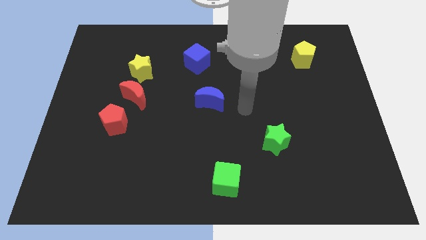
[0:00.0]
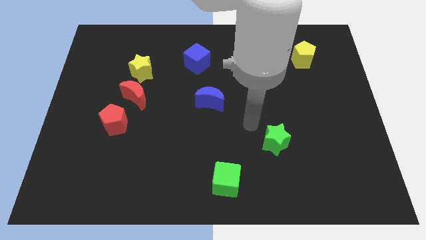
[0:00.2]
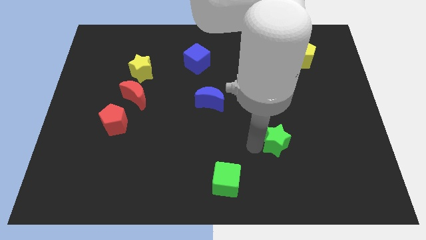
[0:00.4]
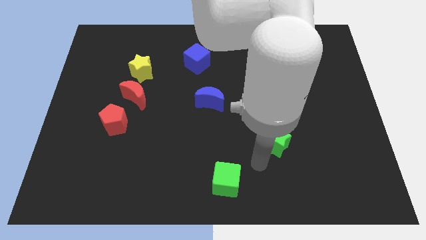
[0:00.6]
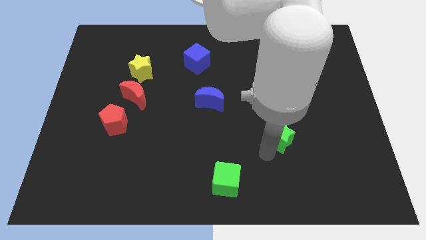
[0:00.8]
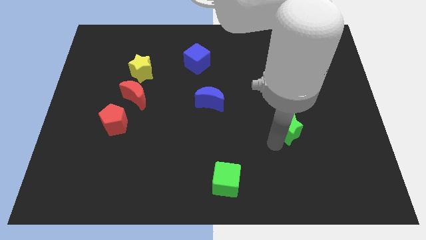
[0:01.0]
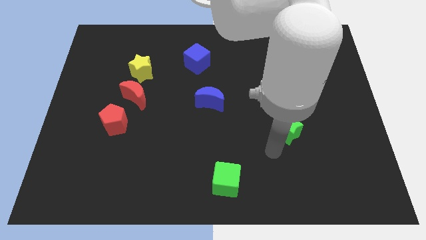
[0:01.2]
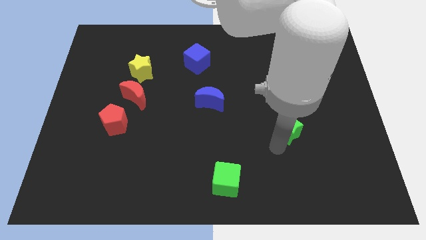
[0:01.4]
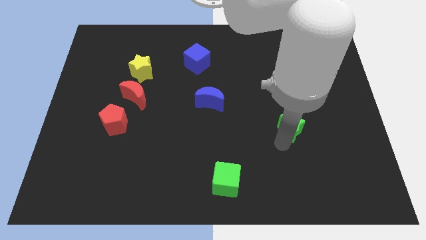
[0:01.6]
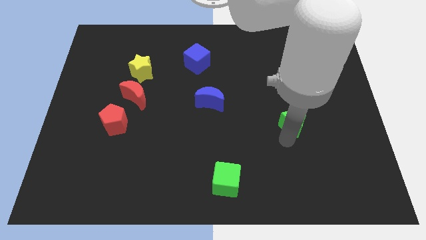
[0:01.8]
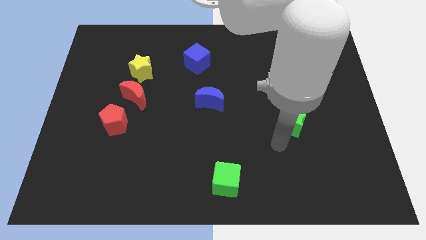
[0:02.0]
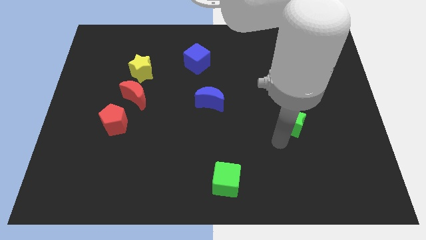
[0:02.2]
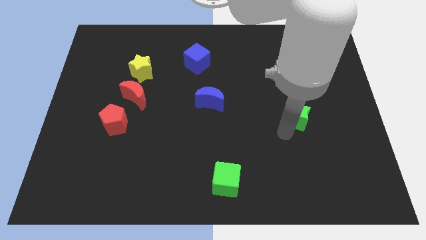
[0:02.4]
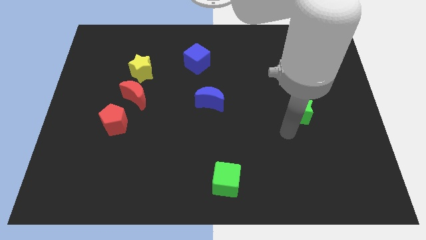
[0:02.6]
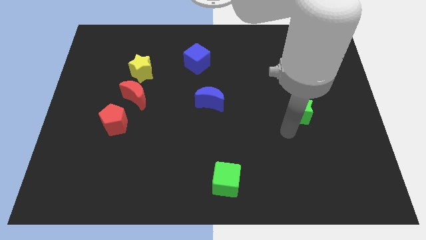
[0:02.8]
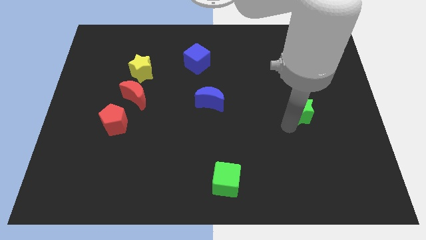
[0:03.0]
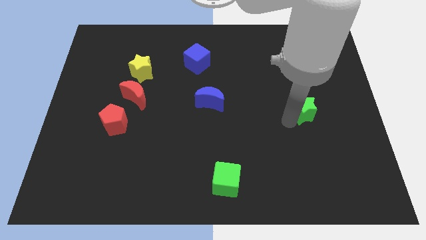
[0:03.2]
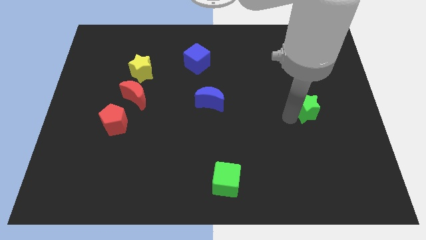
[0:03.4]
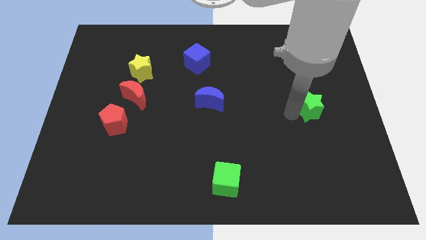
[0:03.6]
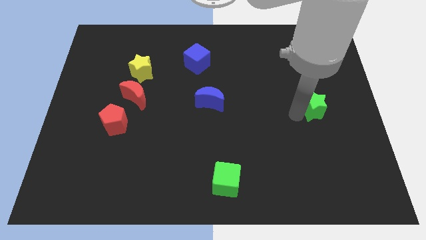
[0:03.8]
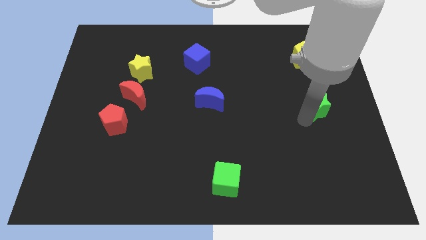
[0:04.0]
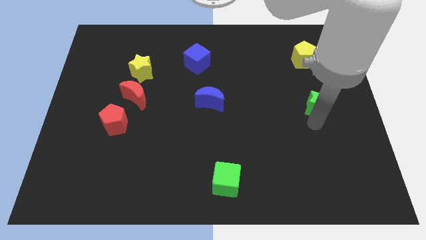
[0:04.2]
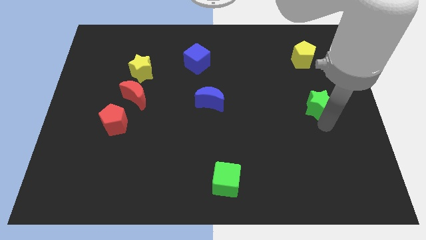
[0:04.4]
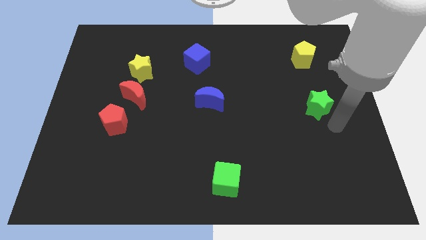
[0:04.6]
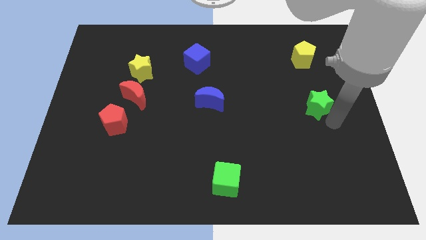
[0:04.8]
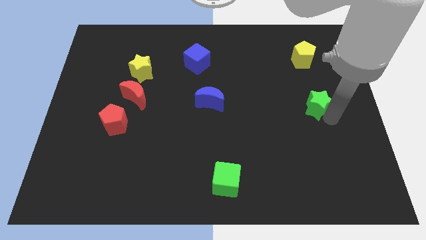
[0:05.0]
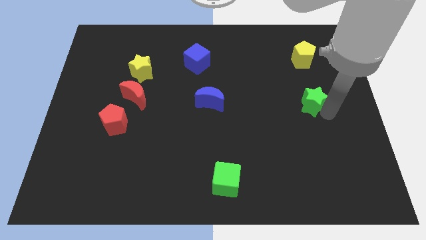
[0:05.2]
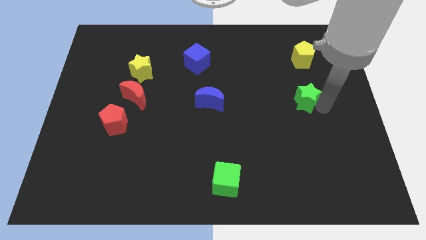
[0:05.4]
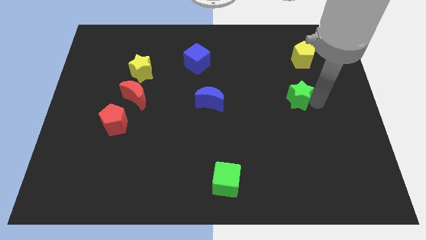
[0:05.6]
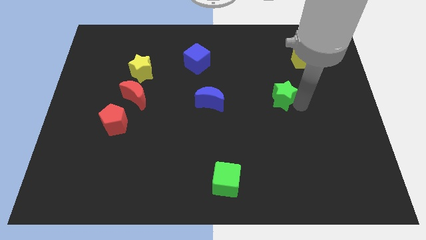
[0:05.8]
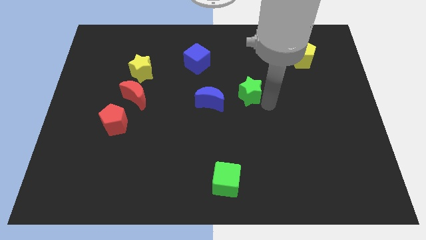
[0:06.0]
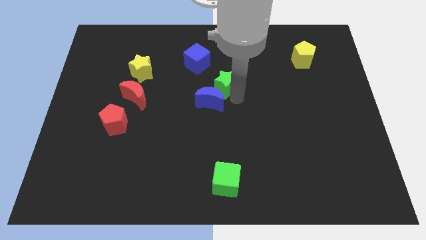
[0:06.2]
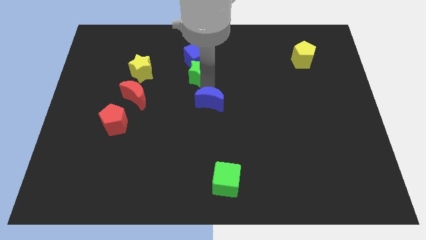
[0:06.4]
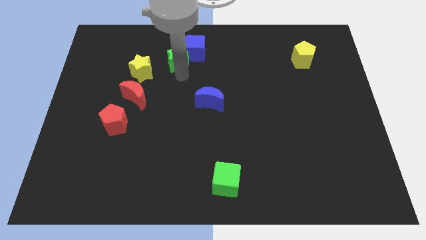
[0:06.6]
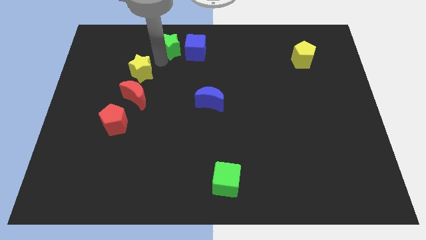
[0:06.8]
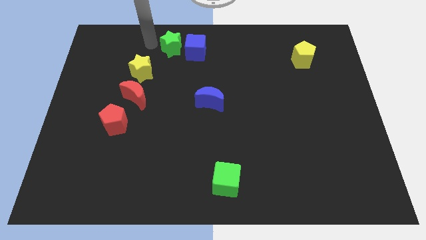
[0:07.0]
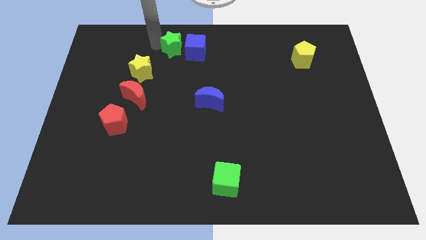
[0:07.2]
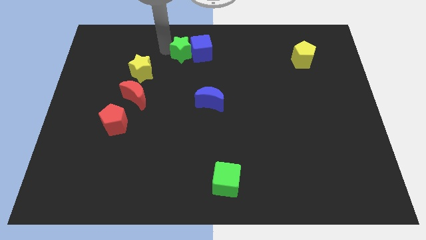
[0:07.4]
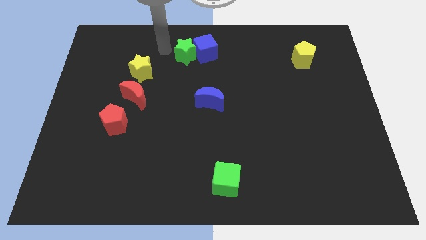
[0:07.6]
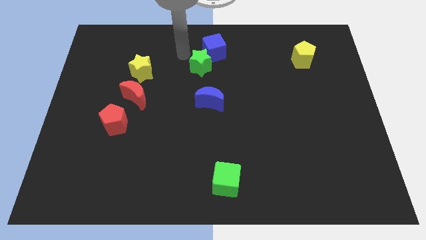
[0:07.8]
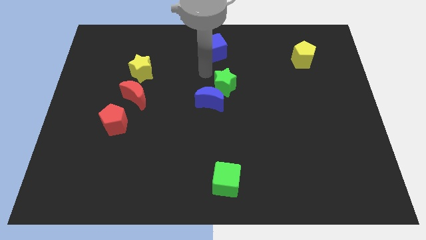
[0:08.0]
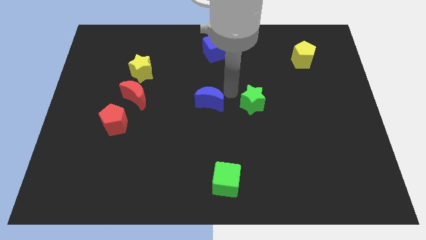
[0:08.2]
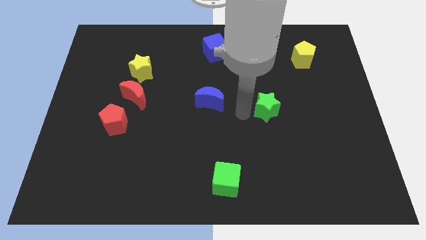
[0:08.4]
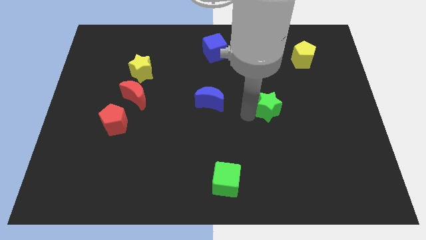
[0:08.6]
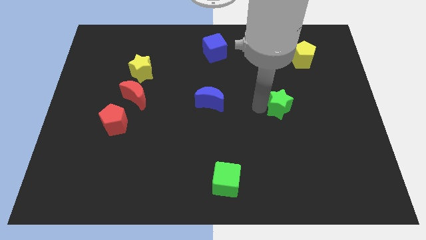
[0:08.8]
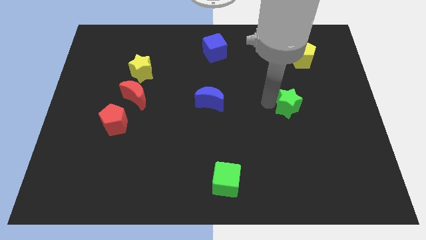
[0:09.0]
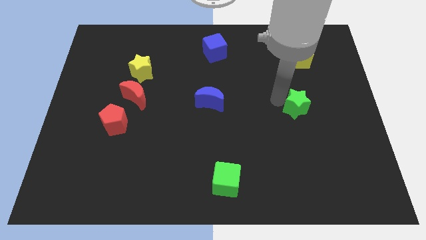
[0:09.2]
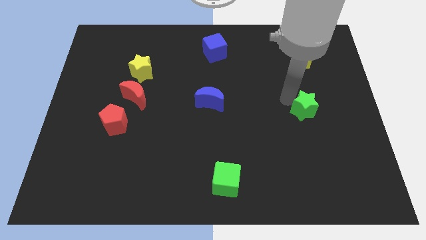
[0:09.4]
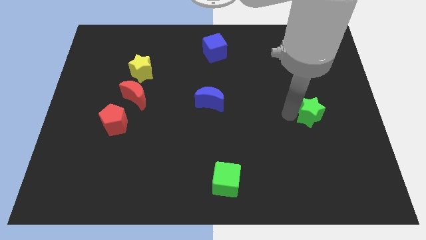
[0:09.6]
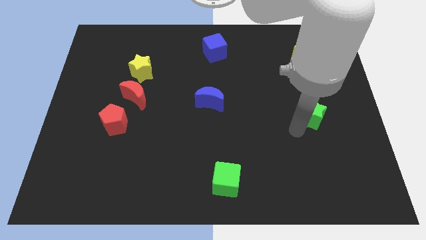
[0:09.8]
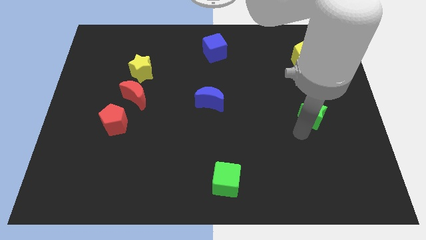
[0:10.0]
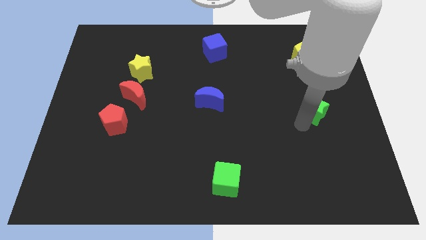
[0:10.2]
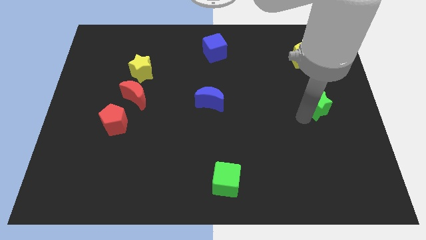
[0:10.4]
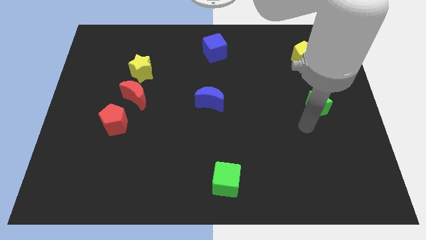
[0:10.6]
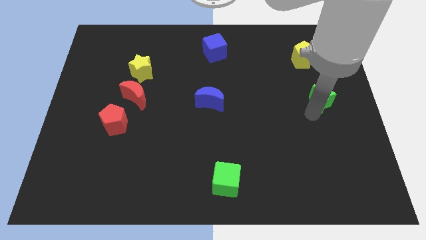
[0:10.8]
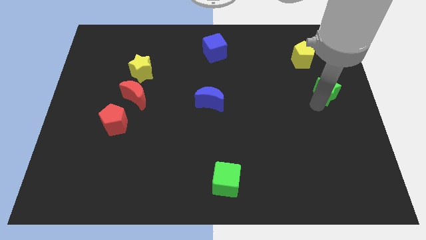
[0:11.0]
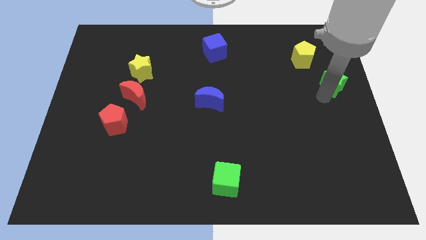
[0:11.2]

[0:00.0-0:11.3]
move the green star to the bottom right side of the yellow pentagon

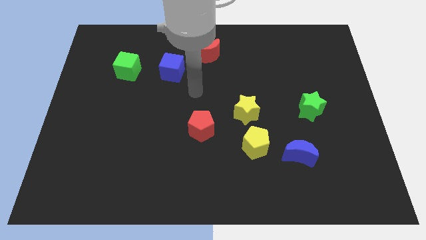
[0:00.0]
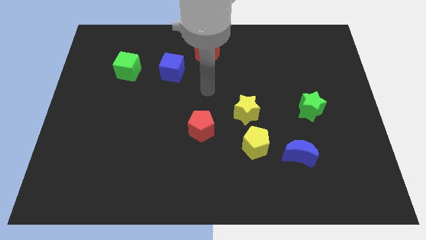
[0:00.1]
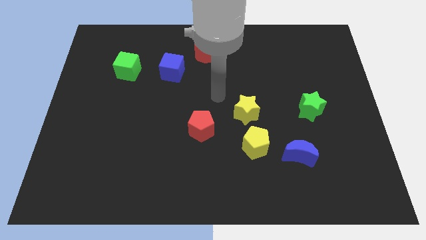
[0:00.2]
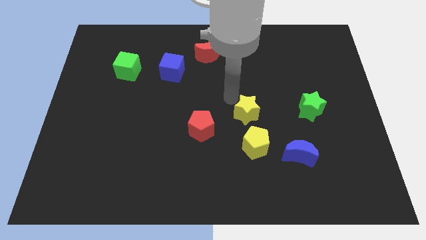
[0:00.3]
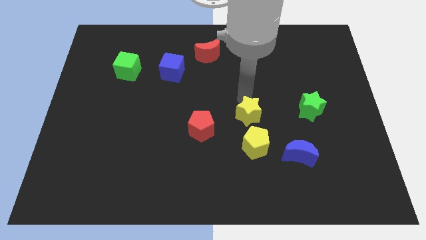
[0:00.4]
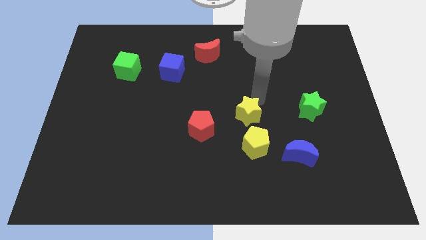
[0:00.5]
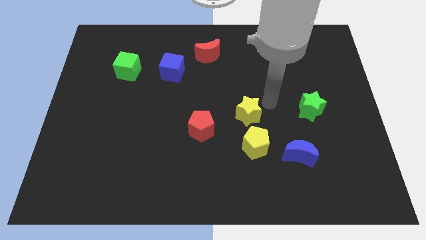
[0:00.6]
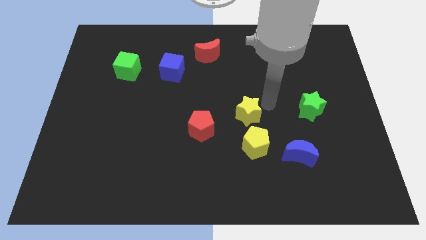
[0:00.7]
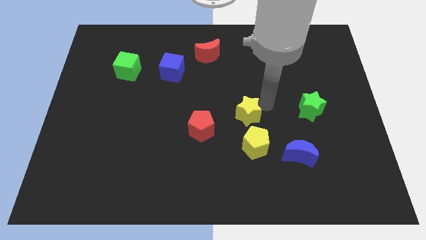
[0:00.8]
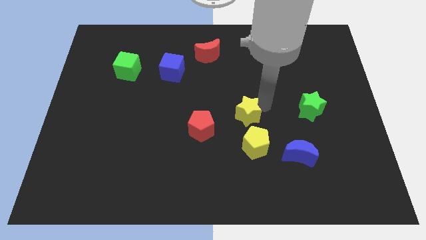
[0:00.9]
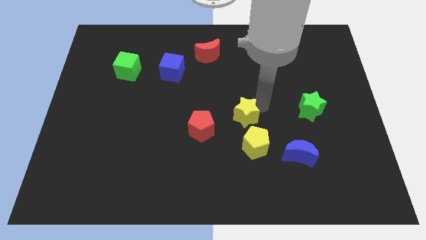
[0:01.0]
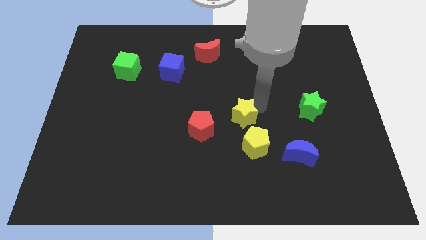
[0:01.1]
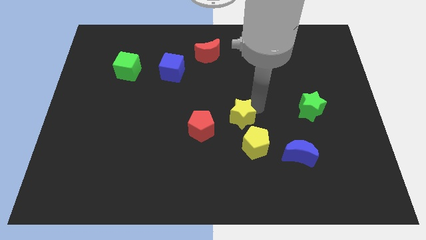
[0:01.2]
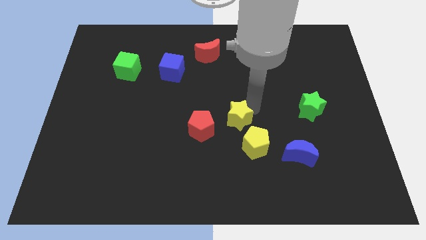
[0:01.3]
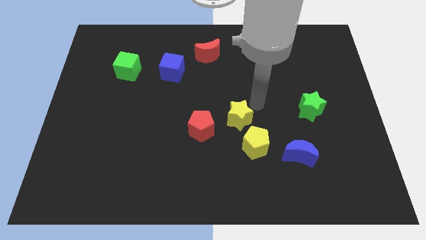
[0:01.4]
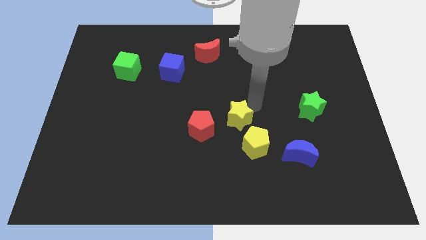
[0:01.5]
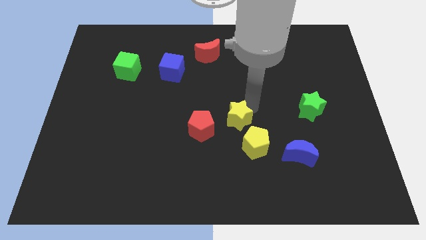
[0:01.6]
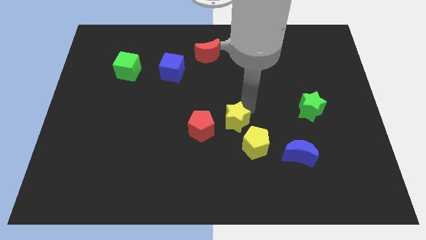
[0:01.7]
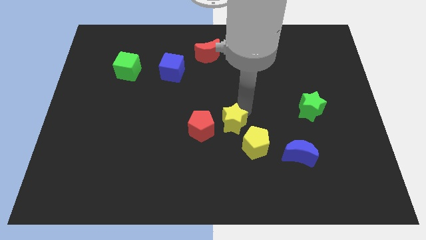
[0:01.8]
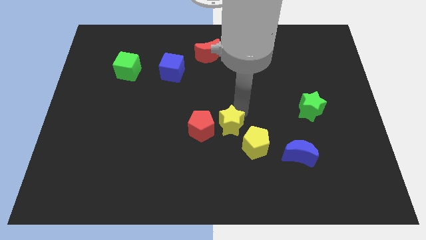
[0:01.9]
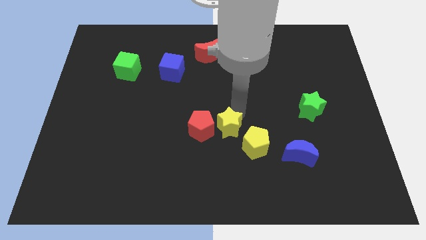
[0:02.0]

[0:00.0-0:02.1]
slide the yellow star left of the yellow pentagon
